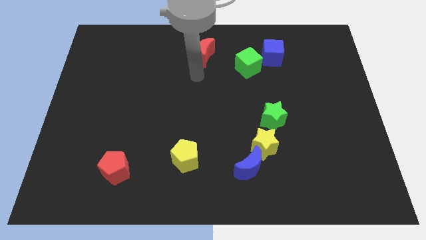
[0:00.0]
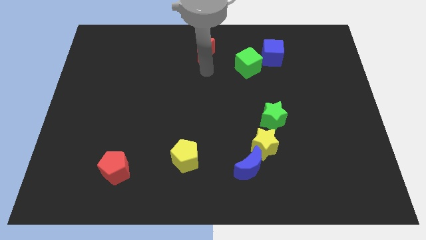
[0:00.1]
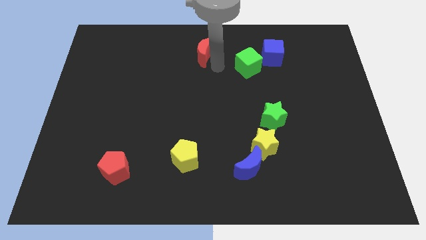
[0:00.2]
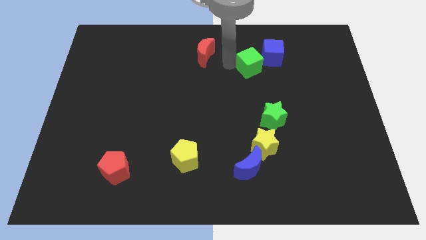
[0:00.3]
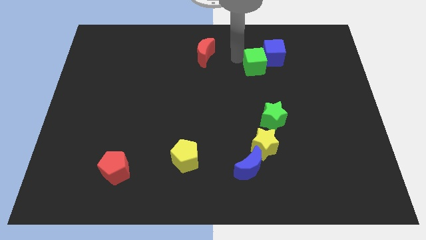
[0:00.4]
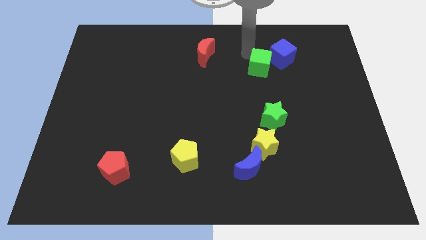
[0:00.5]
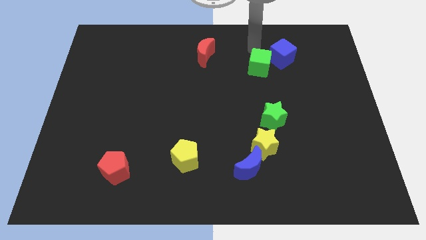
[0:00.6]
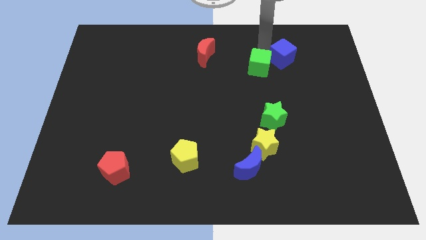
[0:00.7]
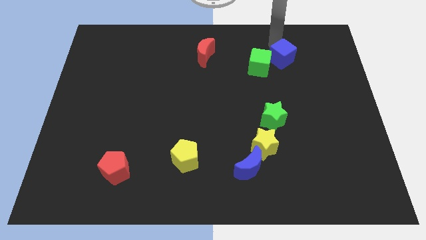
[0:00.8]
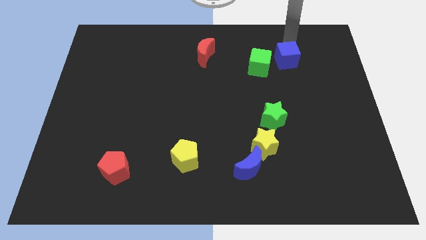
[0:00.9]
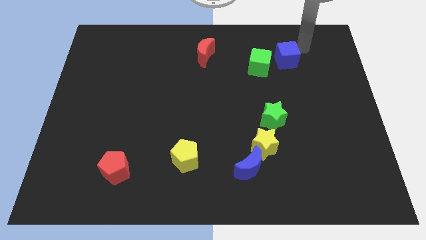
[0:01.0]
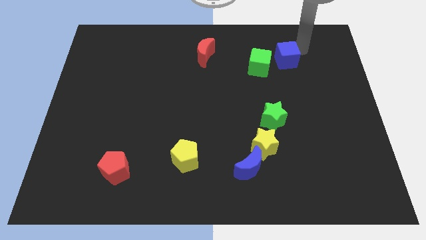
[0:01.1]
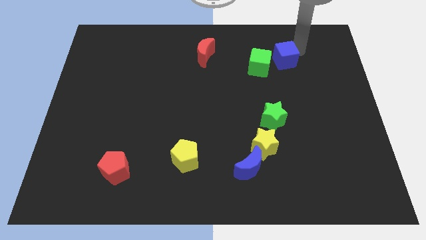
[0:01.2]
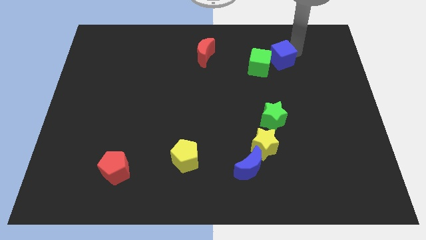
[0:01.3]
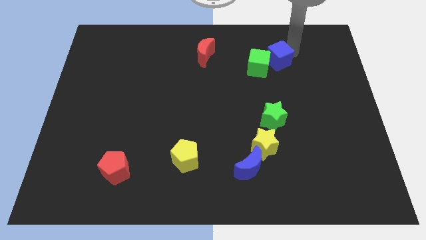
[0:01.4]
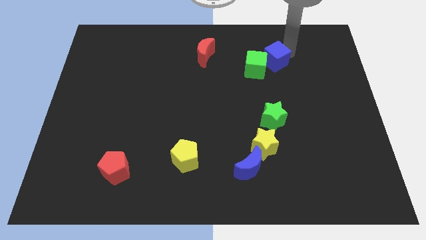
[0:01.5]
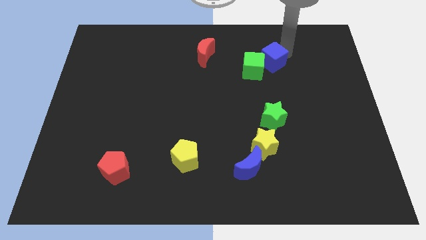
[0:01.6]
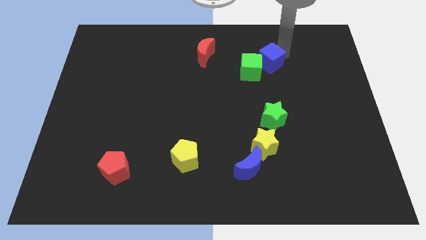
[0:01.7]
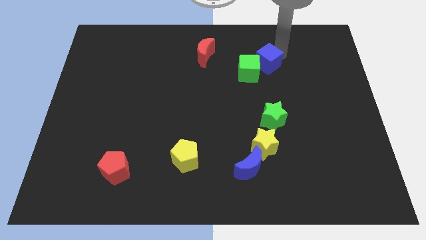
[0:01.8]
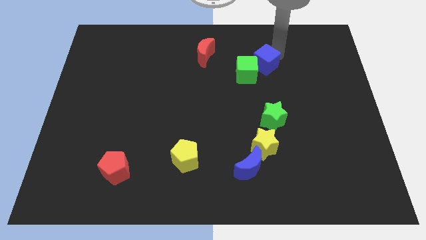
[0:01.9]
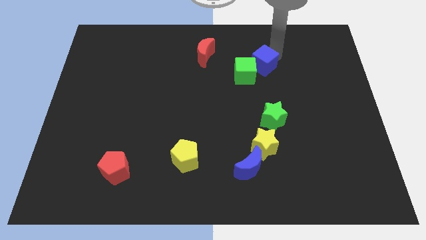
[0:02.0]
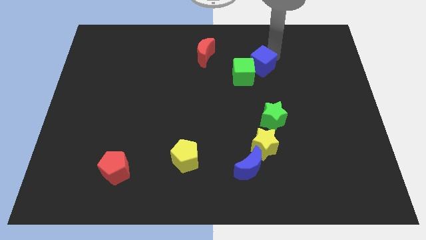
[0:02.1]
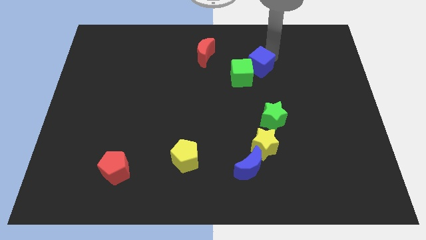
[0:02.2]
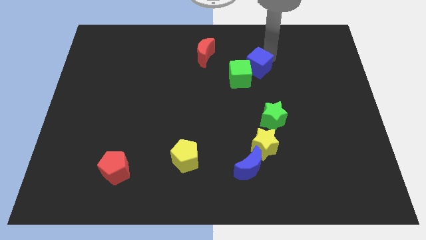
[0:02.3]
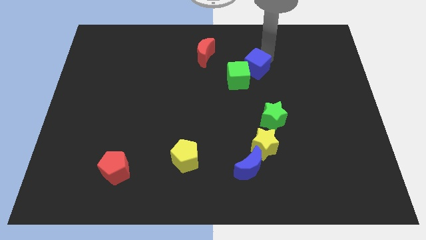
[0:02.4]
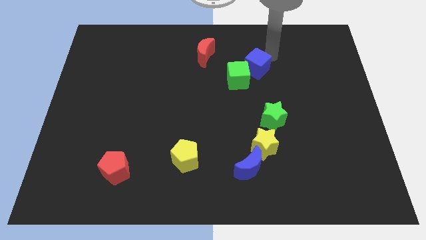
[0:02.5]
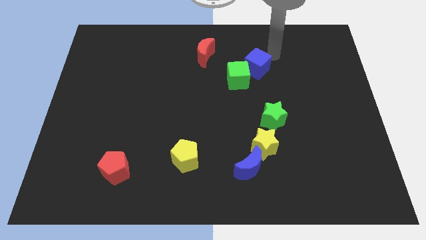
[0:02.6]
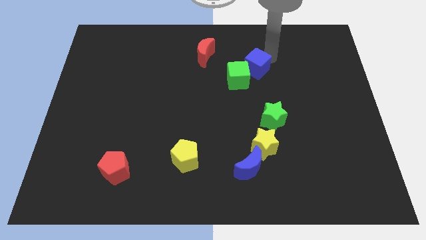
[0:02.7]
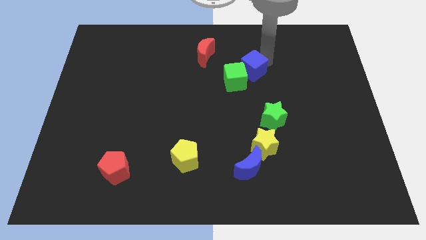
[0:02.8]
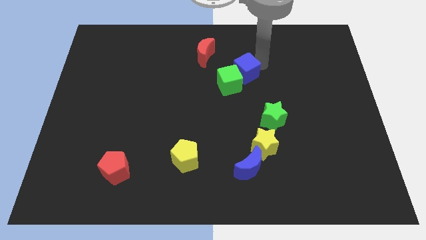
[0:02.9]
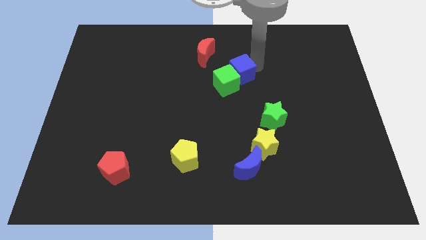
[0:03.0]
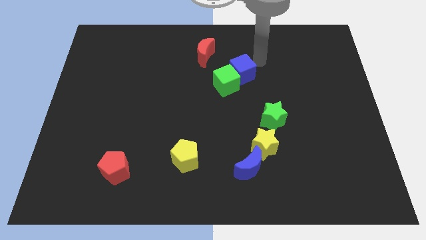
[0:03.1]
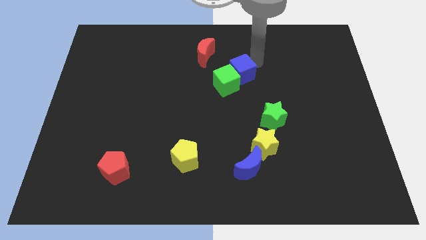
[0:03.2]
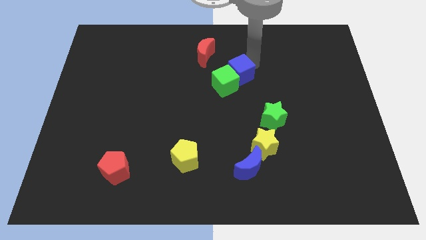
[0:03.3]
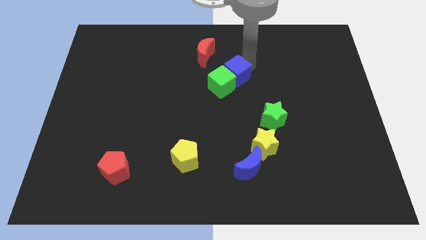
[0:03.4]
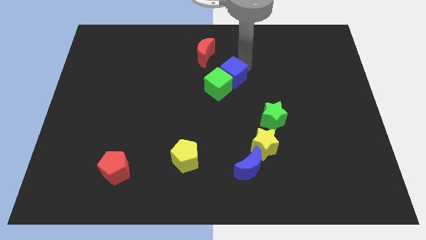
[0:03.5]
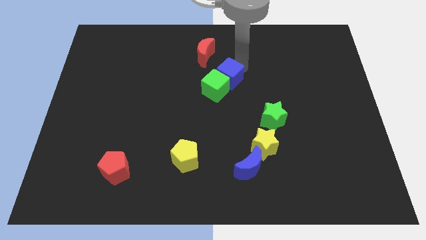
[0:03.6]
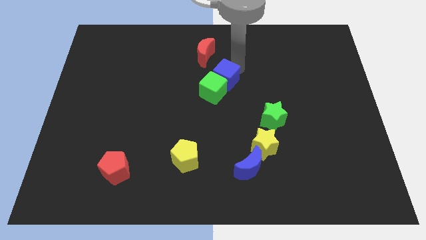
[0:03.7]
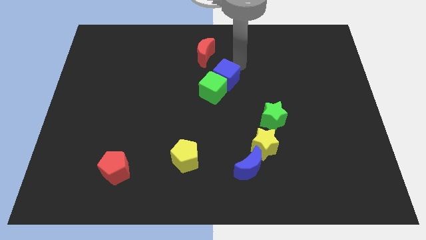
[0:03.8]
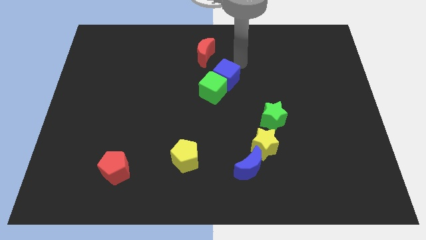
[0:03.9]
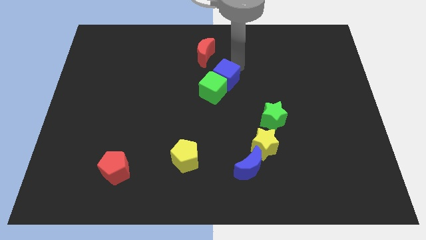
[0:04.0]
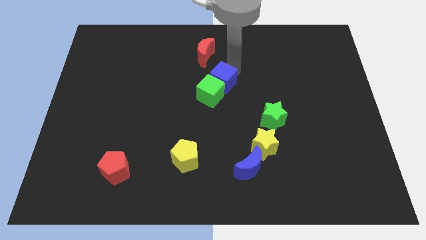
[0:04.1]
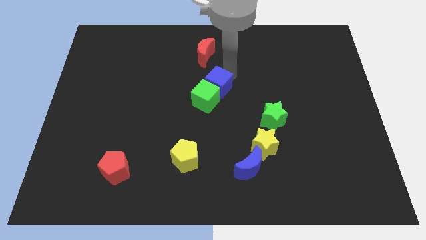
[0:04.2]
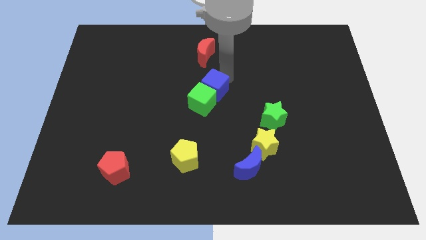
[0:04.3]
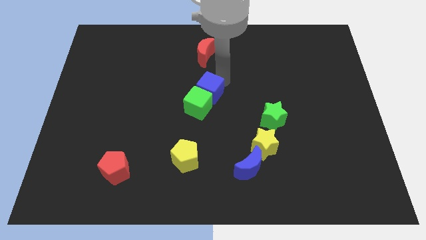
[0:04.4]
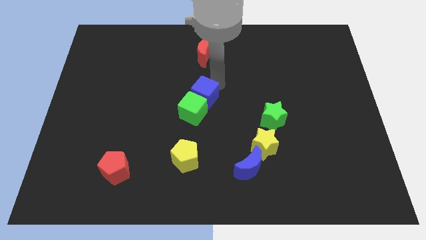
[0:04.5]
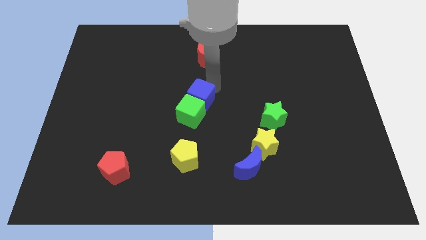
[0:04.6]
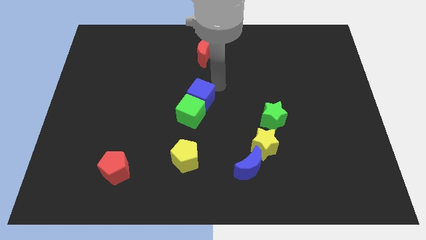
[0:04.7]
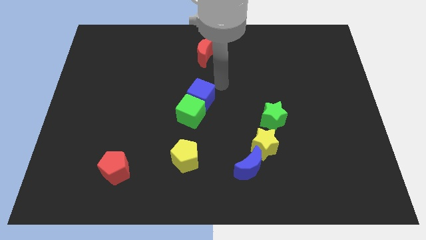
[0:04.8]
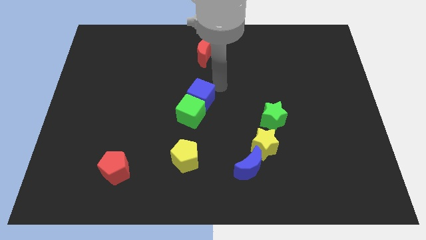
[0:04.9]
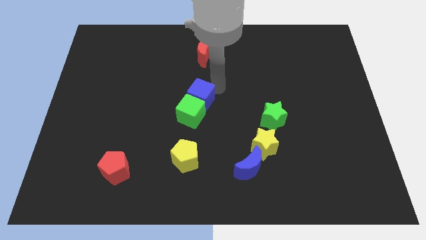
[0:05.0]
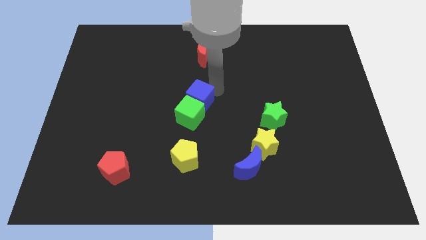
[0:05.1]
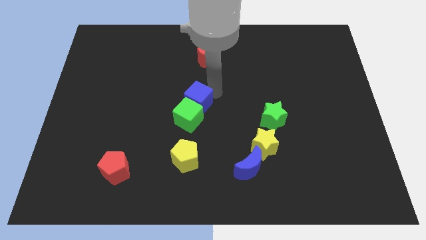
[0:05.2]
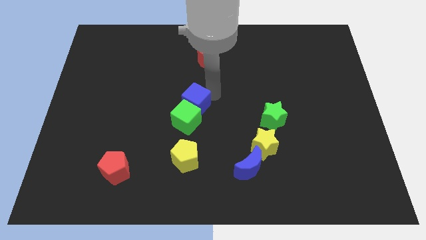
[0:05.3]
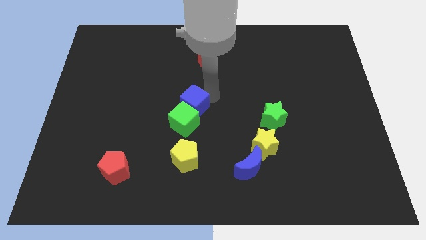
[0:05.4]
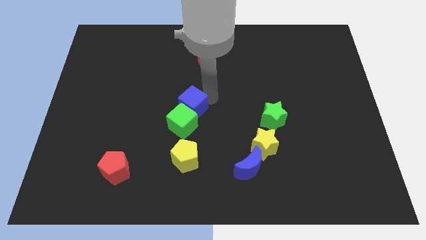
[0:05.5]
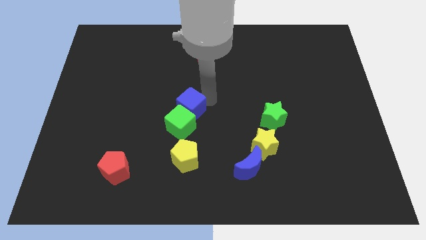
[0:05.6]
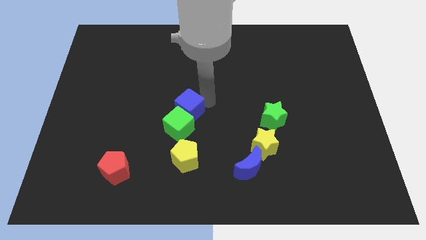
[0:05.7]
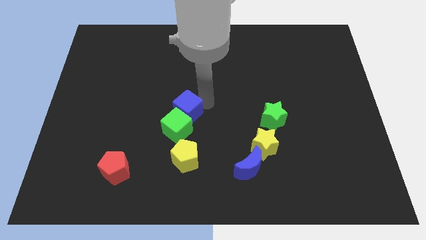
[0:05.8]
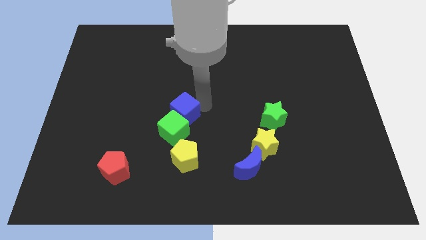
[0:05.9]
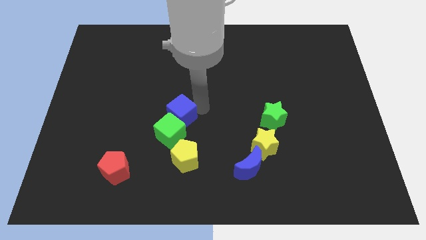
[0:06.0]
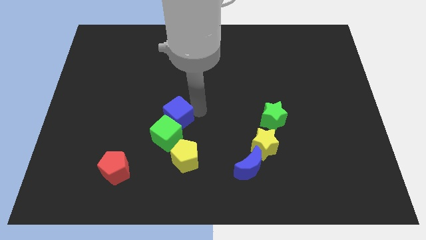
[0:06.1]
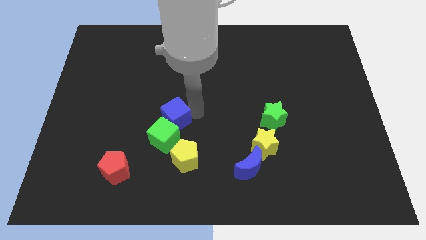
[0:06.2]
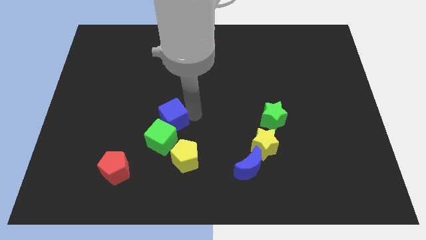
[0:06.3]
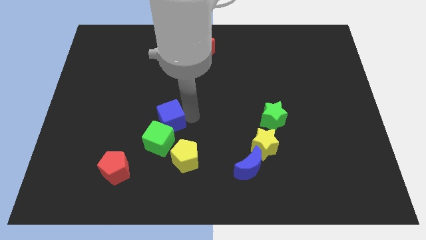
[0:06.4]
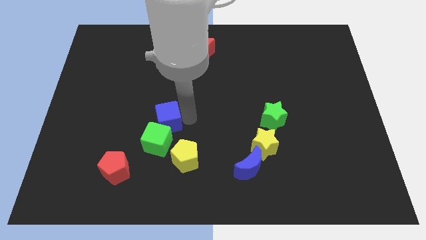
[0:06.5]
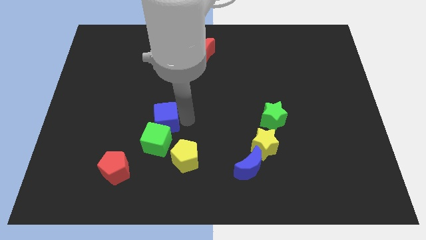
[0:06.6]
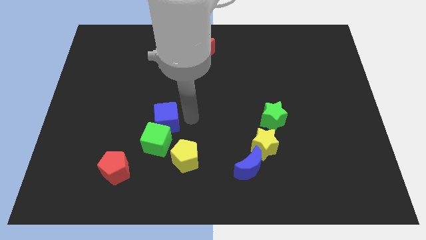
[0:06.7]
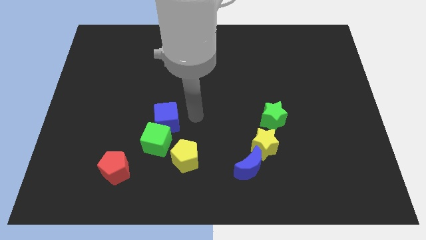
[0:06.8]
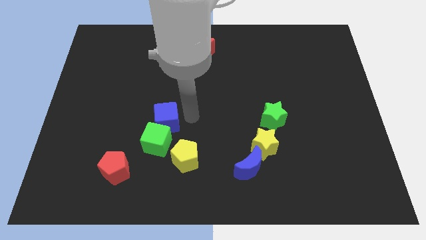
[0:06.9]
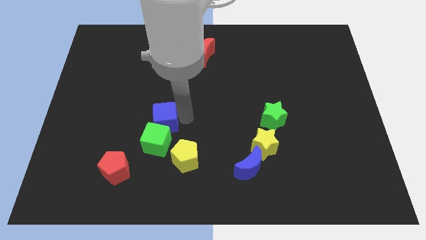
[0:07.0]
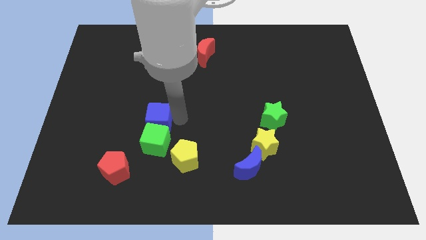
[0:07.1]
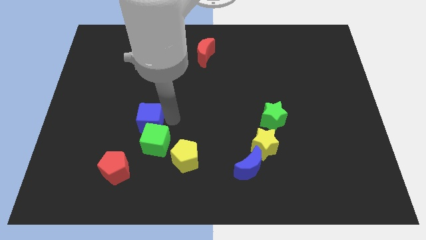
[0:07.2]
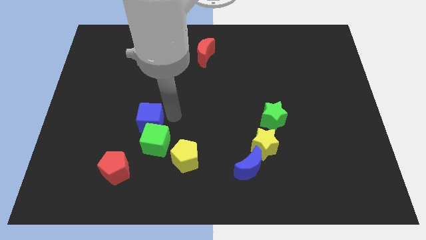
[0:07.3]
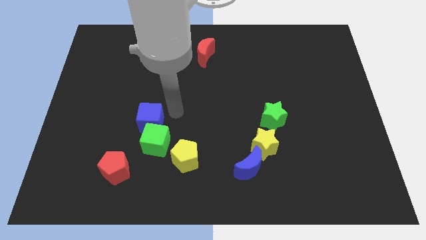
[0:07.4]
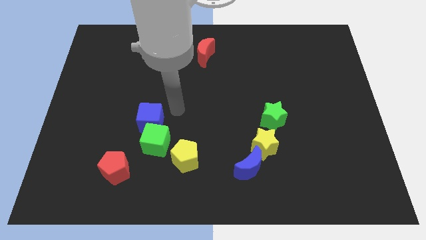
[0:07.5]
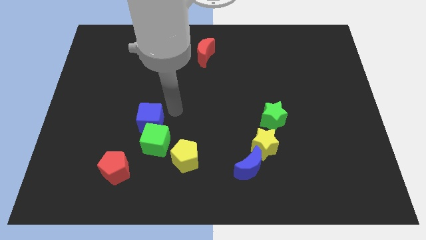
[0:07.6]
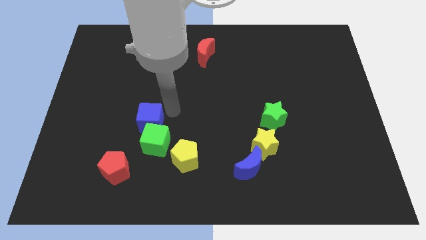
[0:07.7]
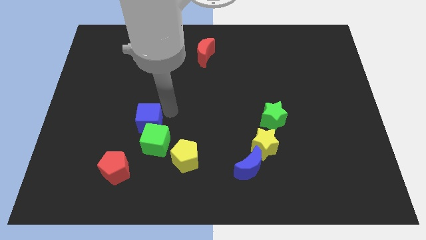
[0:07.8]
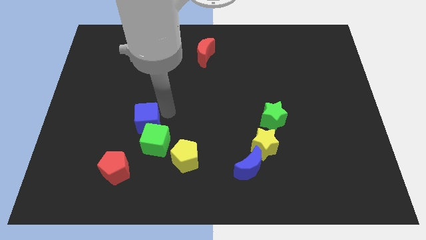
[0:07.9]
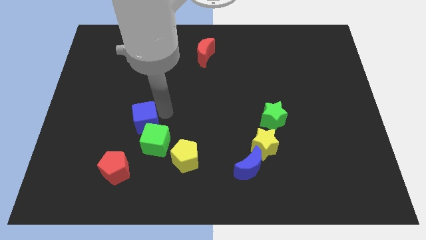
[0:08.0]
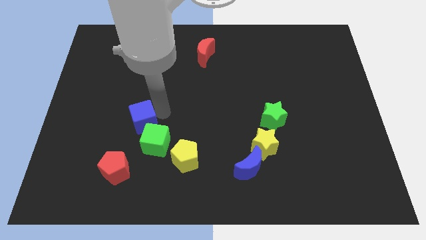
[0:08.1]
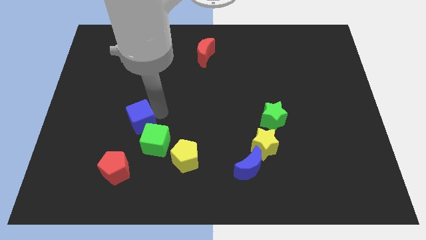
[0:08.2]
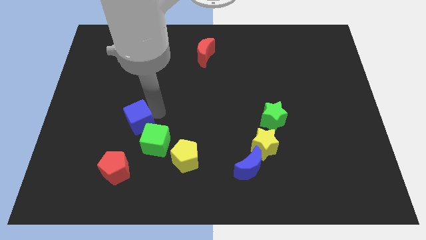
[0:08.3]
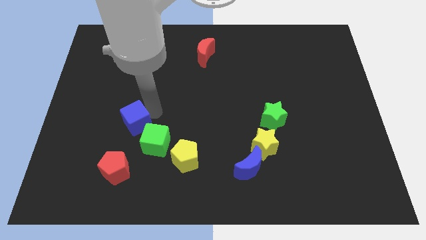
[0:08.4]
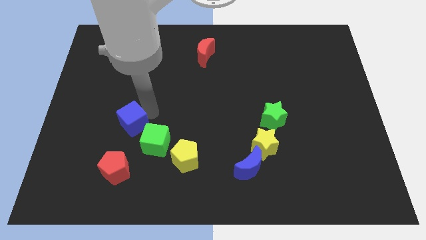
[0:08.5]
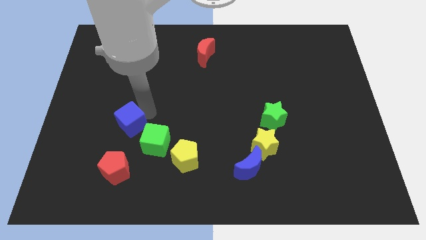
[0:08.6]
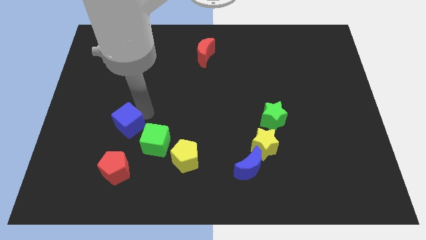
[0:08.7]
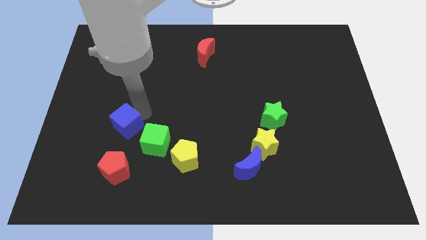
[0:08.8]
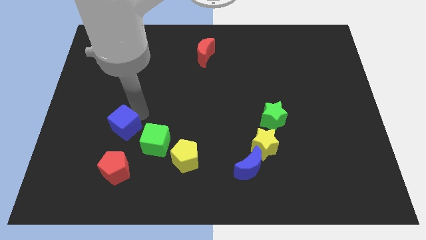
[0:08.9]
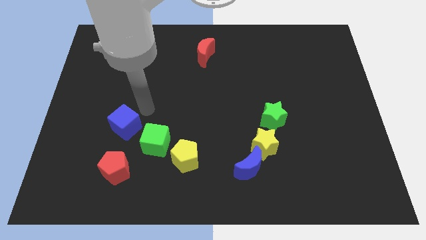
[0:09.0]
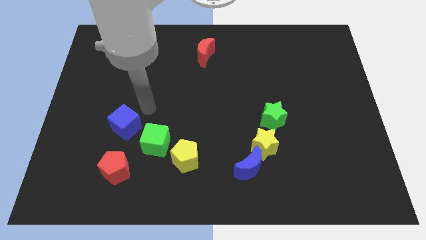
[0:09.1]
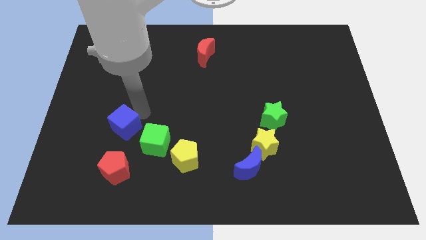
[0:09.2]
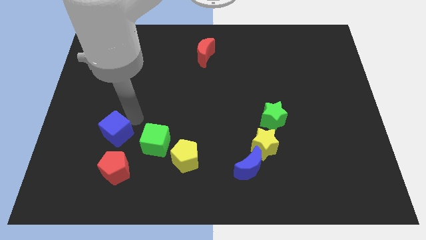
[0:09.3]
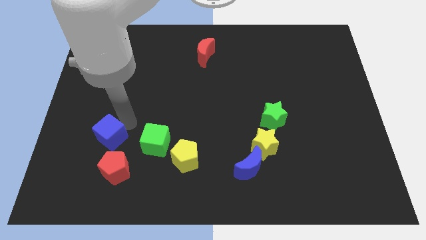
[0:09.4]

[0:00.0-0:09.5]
put the blue cube diagonally up and to the left of the red pentagon
